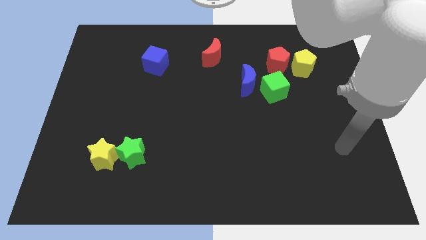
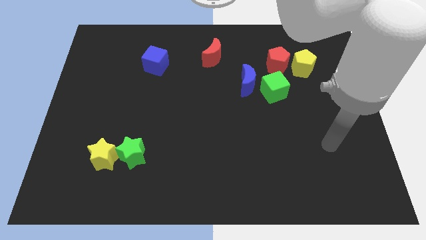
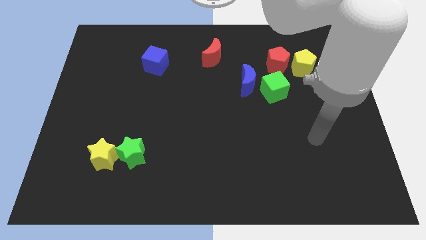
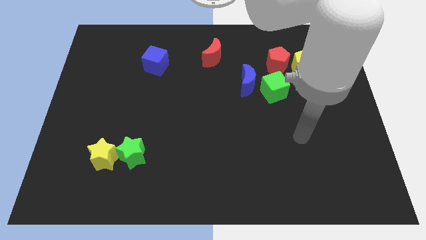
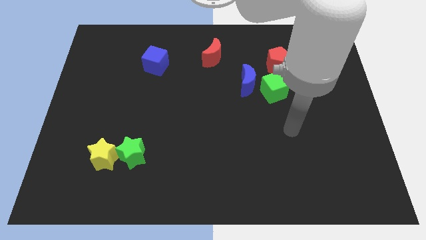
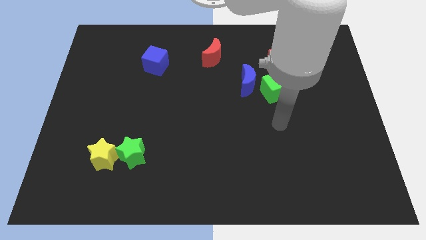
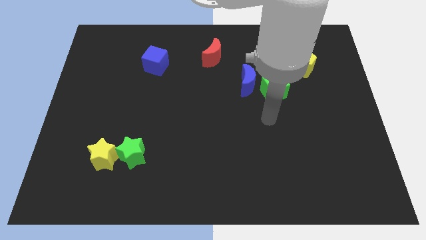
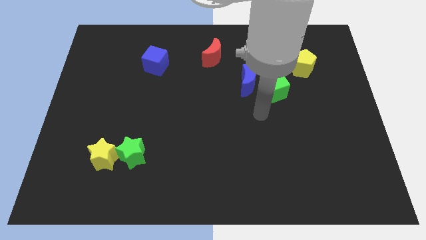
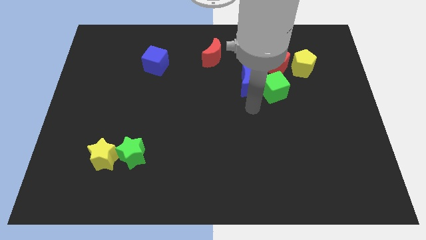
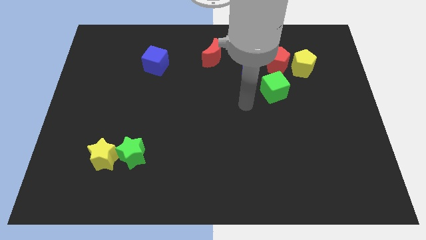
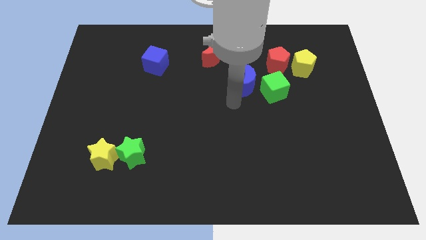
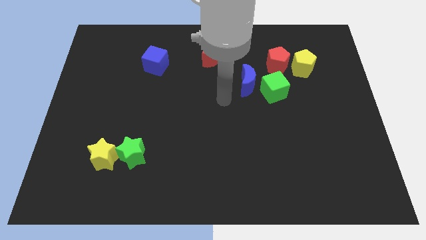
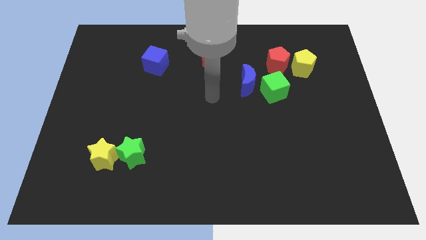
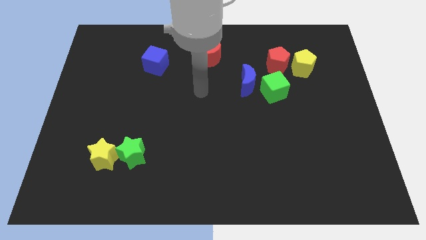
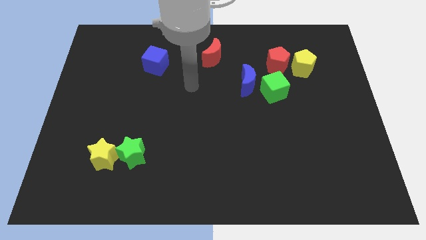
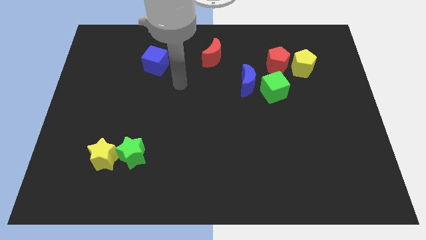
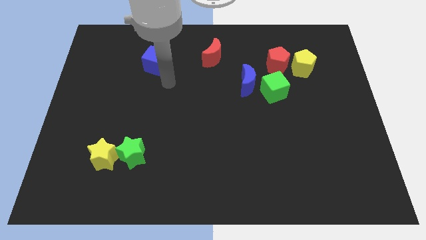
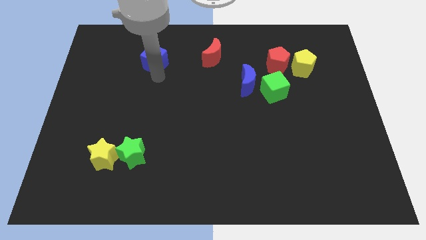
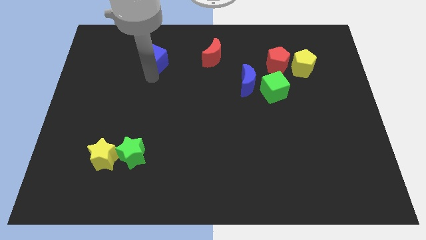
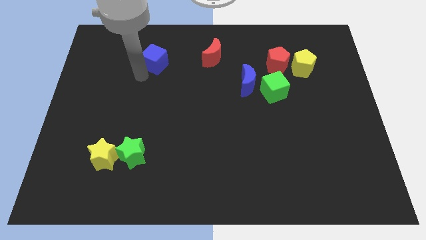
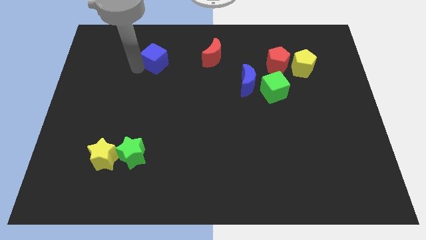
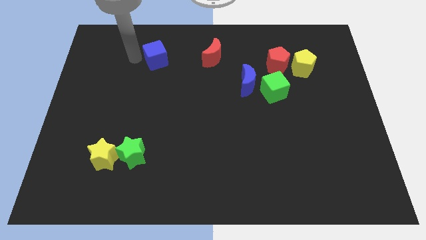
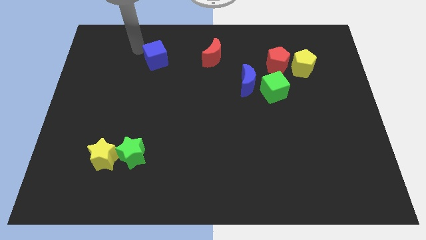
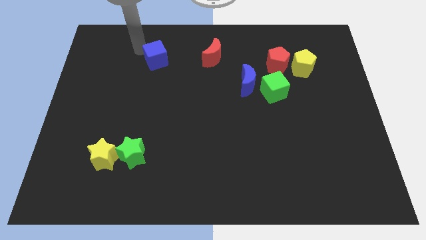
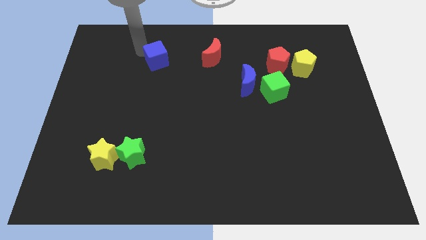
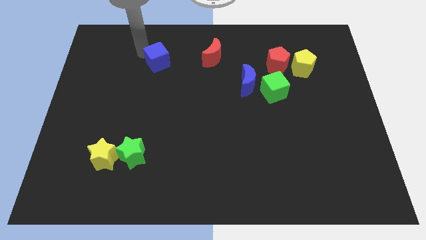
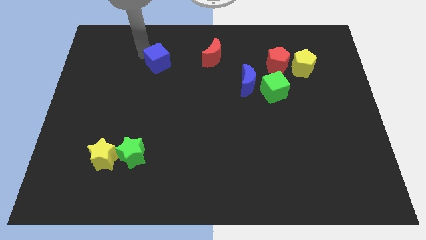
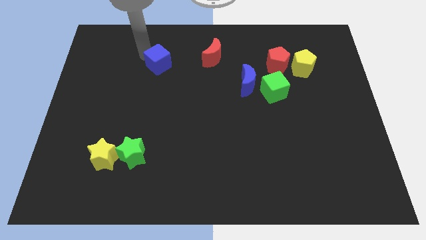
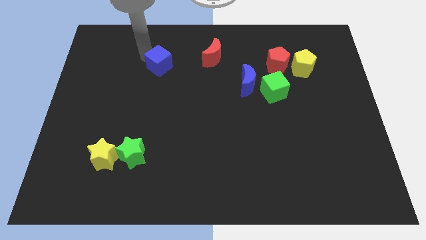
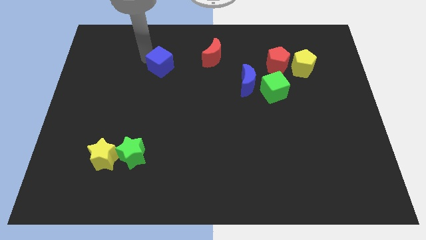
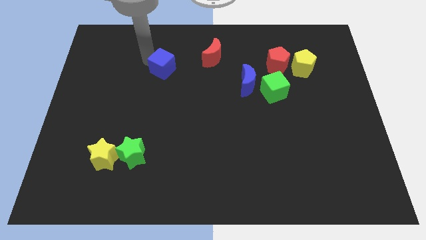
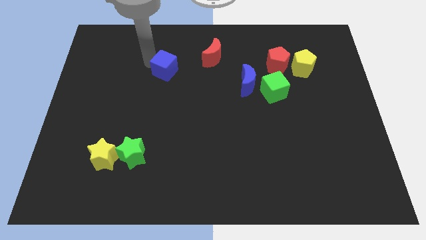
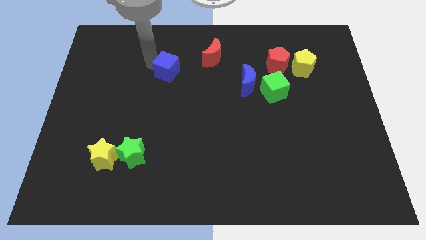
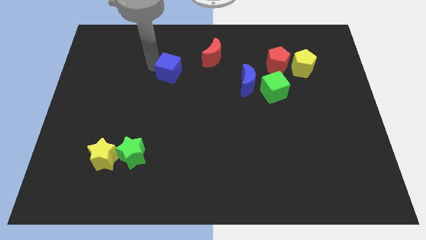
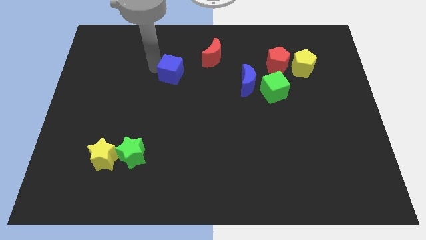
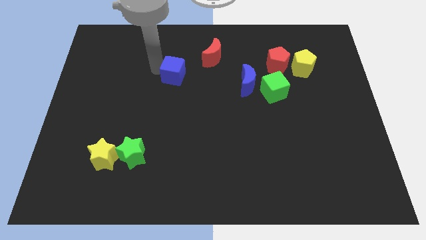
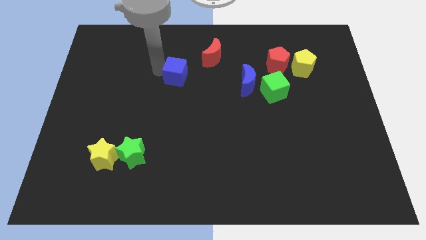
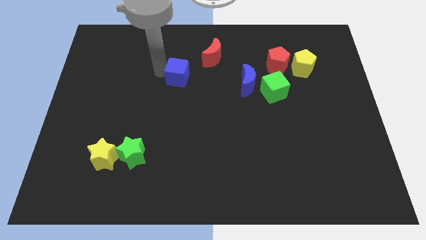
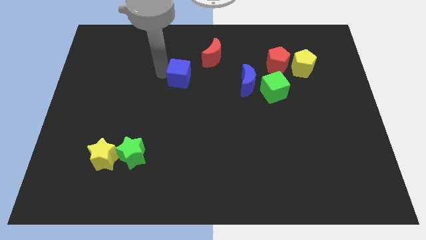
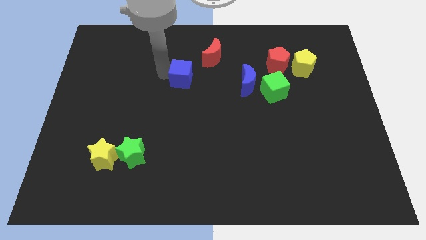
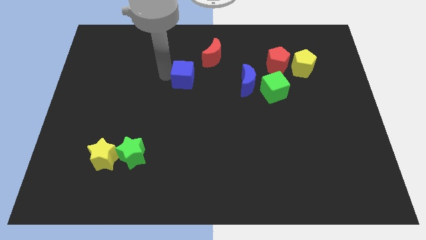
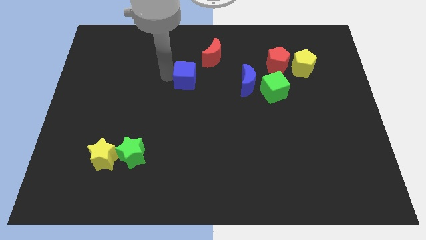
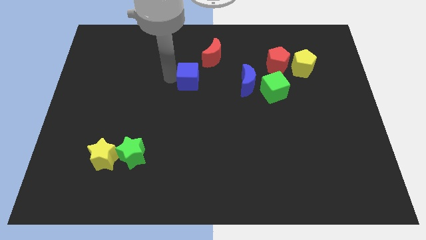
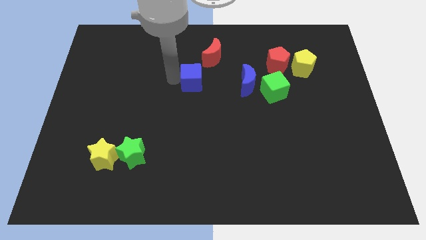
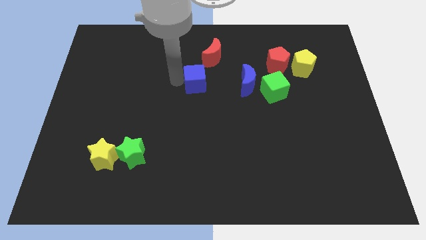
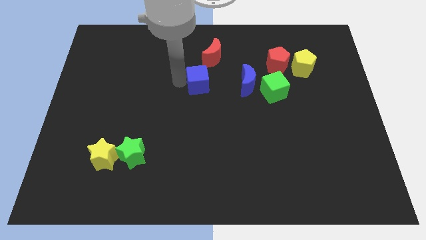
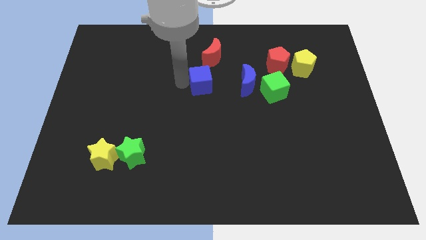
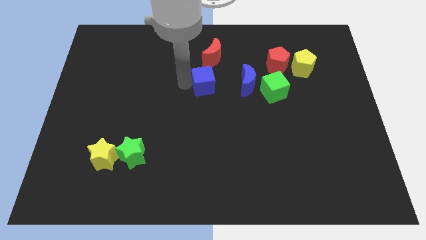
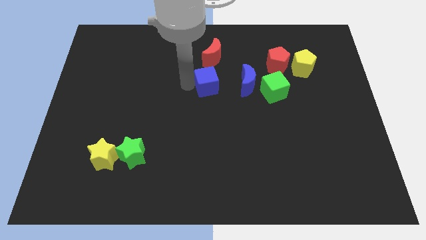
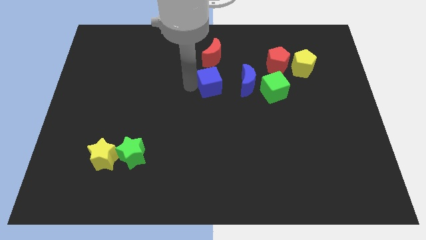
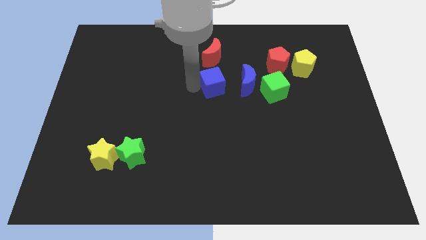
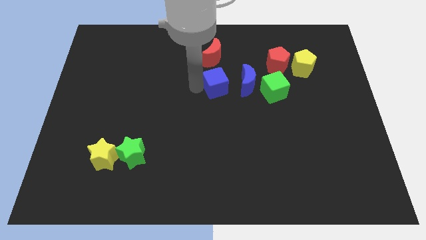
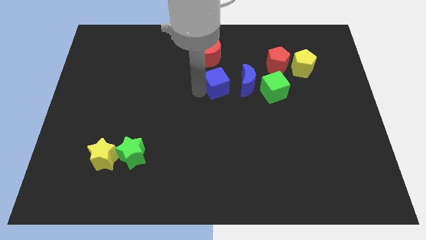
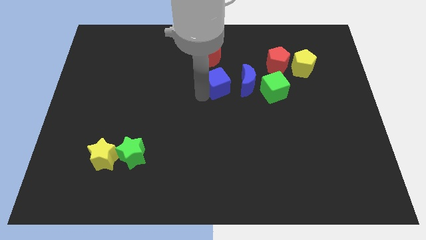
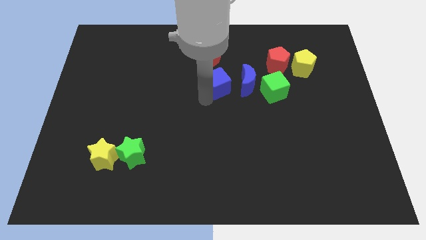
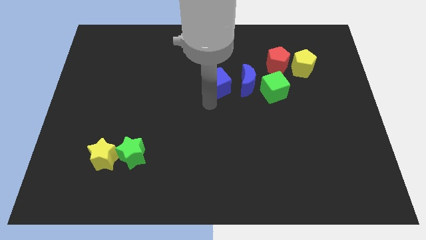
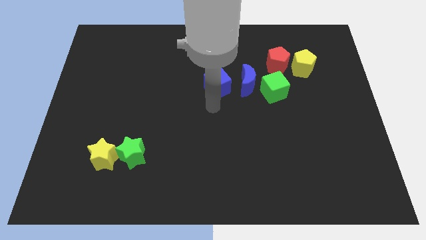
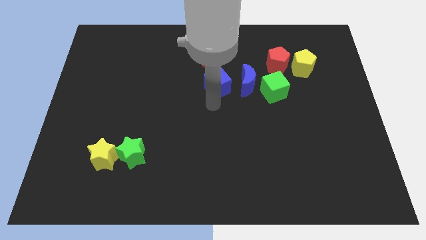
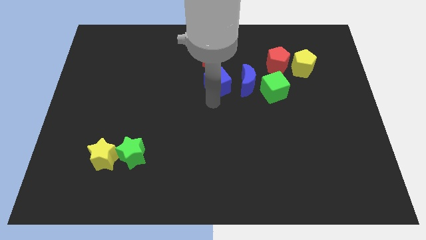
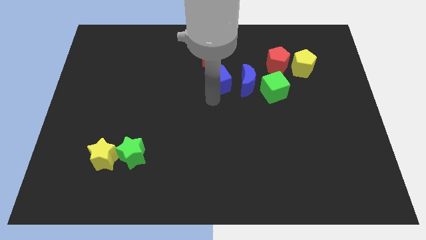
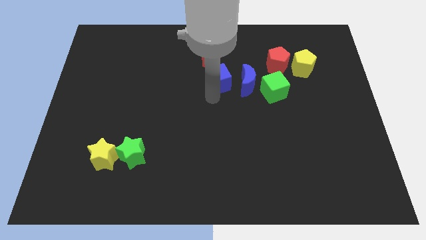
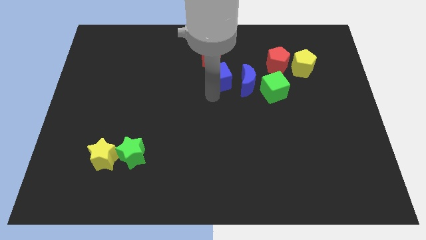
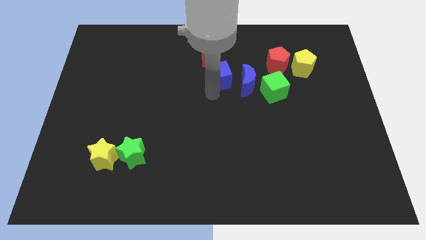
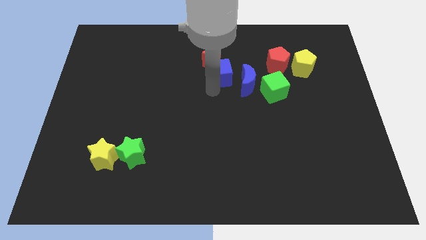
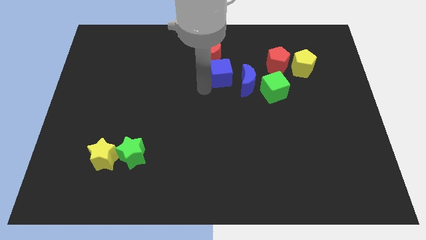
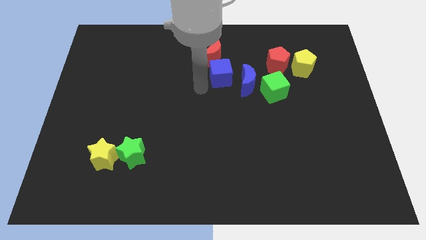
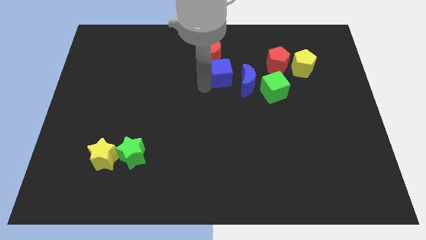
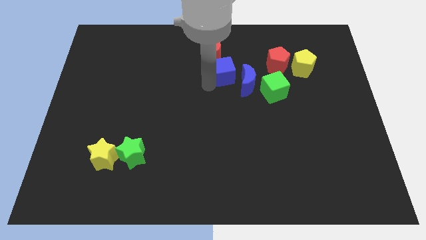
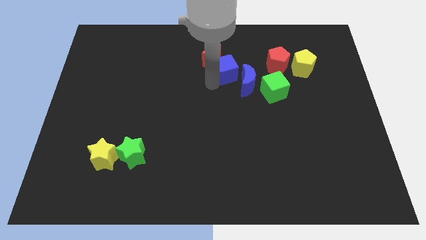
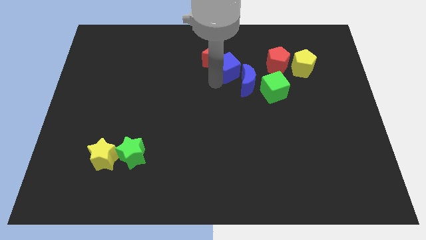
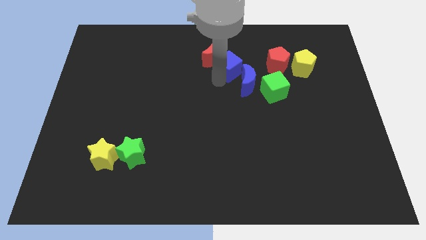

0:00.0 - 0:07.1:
put the blue cube to the right of the red moon
